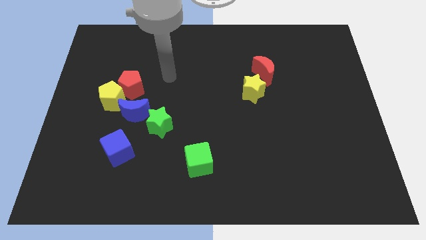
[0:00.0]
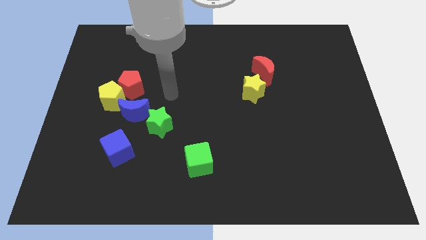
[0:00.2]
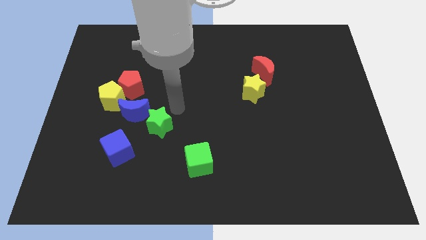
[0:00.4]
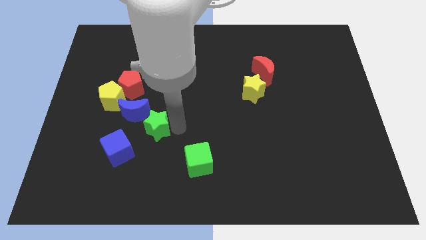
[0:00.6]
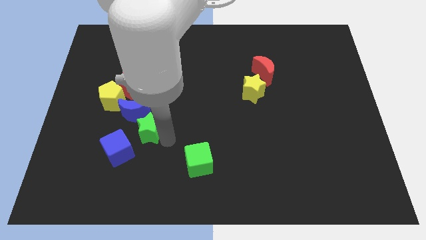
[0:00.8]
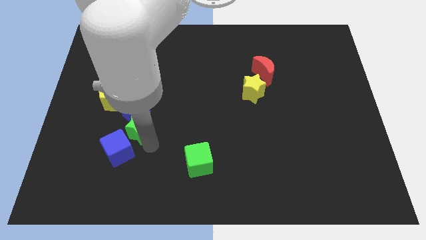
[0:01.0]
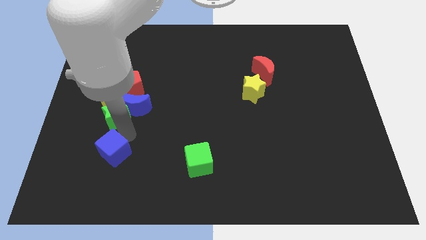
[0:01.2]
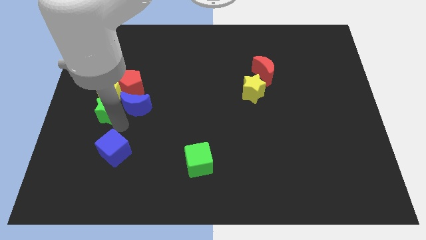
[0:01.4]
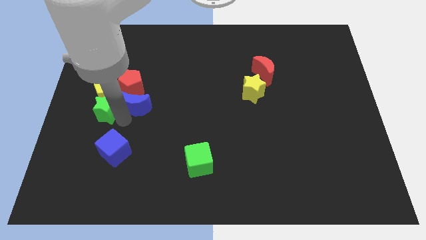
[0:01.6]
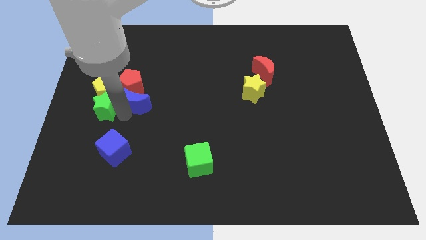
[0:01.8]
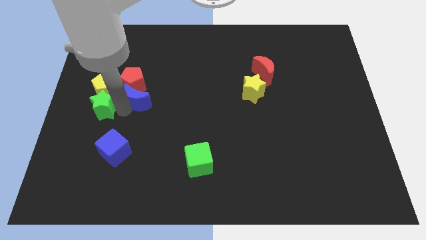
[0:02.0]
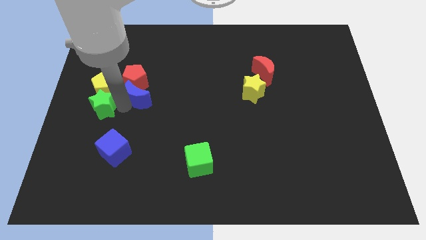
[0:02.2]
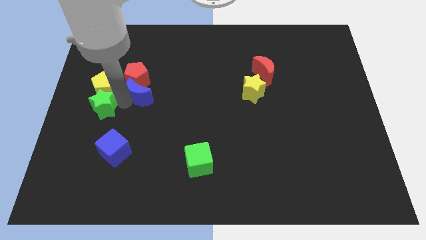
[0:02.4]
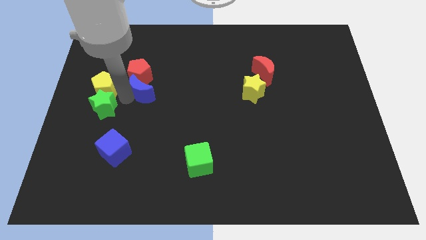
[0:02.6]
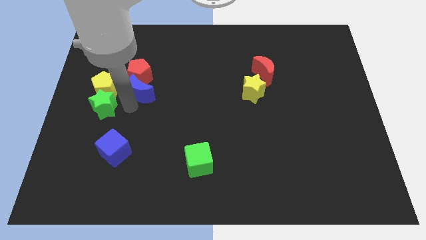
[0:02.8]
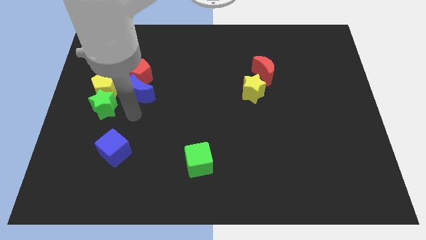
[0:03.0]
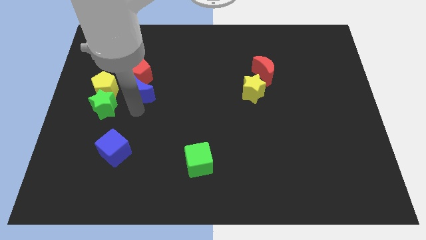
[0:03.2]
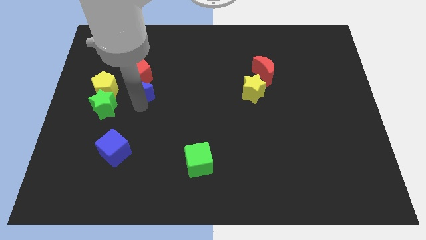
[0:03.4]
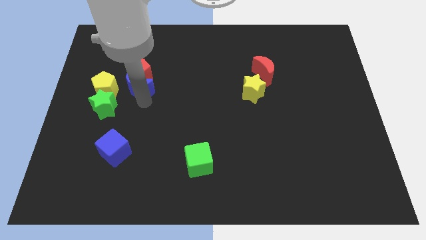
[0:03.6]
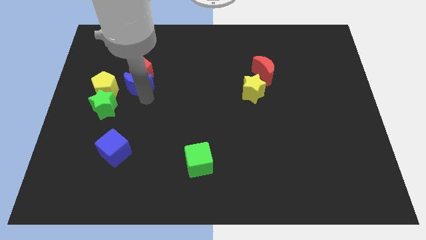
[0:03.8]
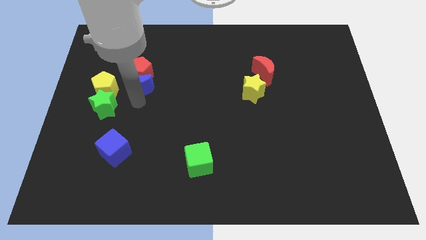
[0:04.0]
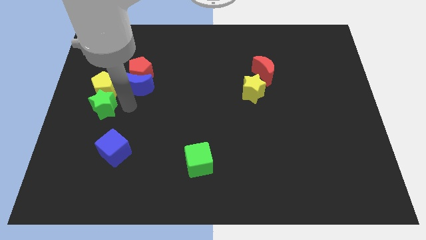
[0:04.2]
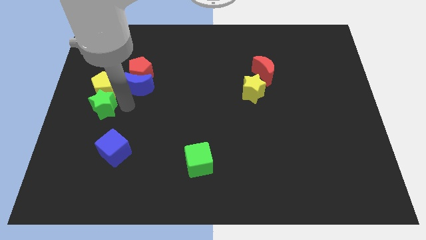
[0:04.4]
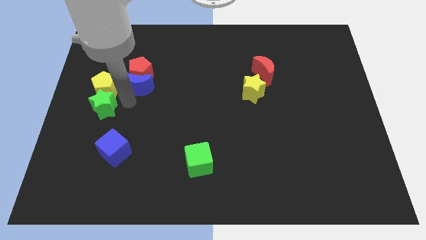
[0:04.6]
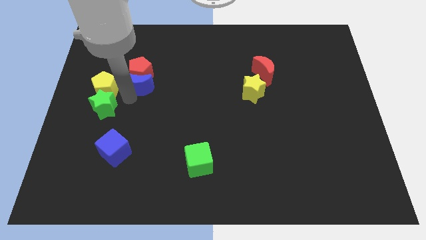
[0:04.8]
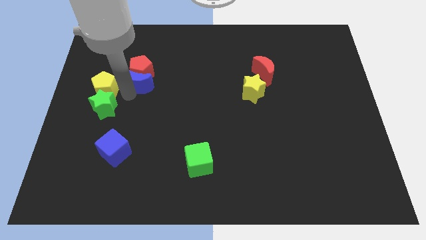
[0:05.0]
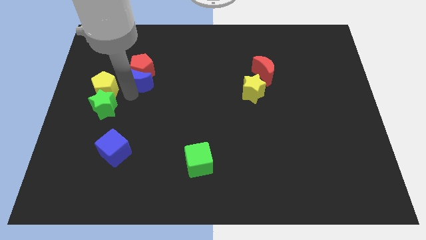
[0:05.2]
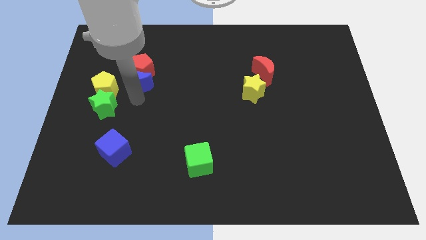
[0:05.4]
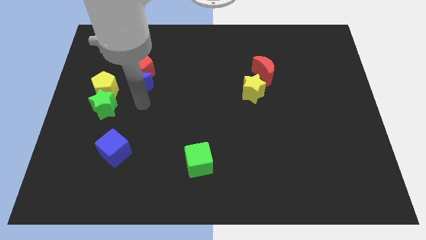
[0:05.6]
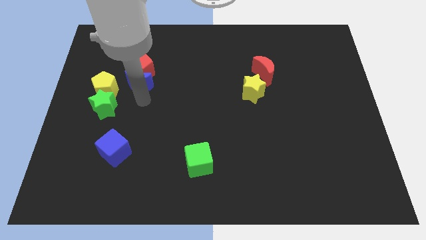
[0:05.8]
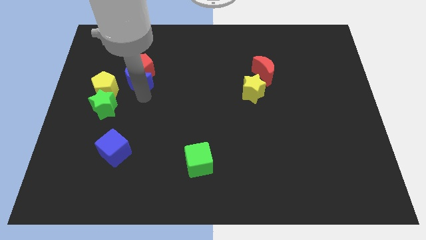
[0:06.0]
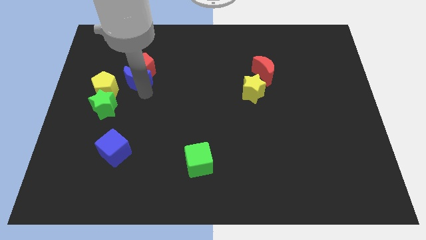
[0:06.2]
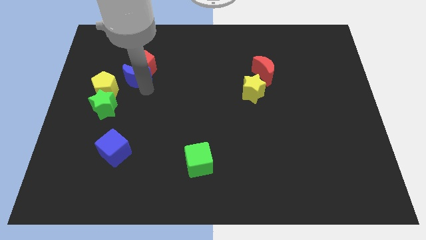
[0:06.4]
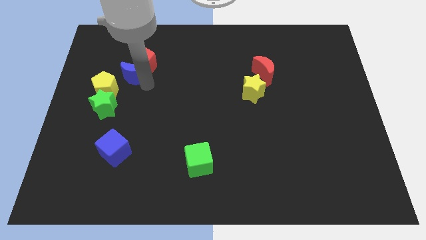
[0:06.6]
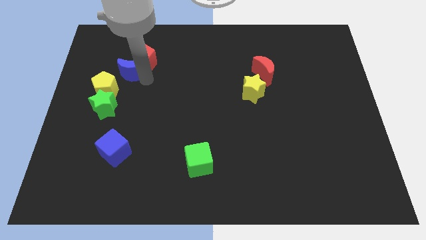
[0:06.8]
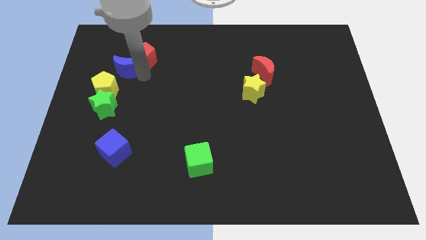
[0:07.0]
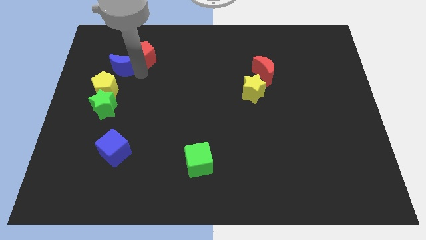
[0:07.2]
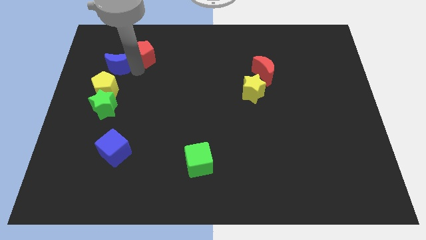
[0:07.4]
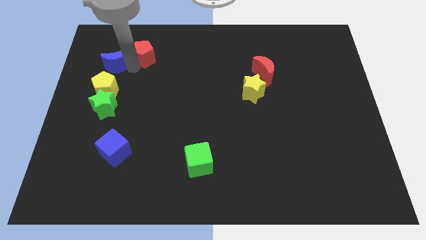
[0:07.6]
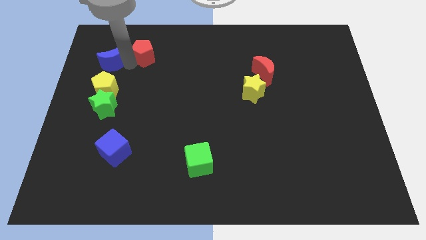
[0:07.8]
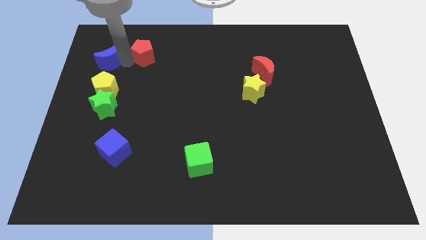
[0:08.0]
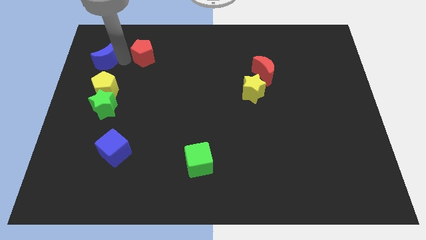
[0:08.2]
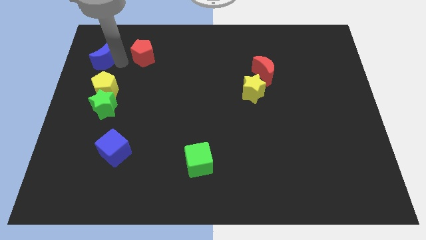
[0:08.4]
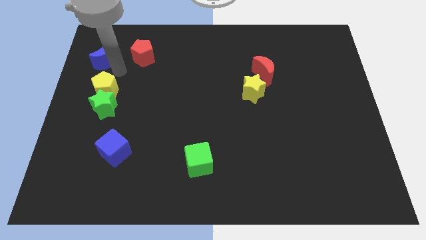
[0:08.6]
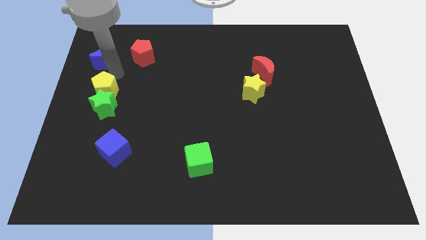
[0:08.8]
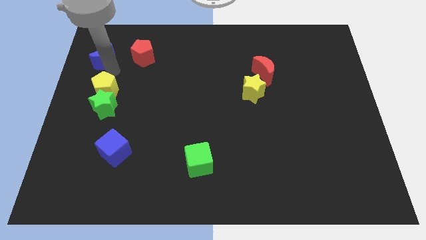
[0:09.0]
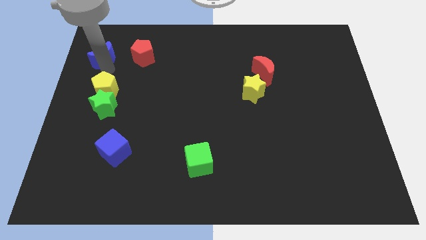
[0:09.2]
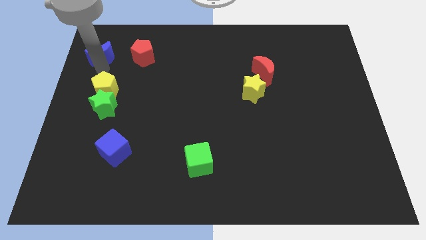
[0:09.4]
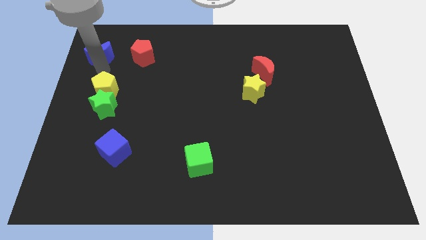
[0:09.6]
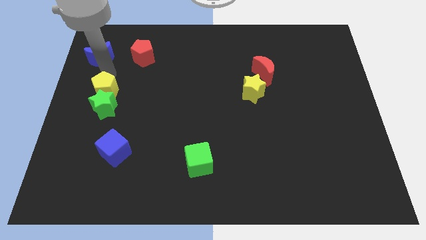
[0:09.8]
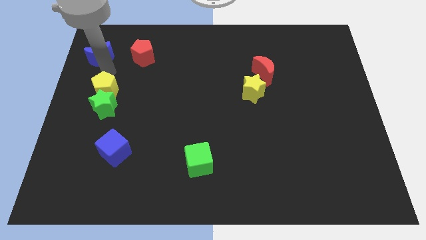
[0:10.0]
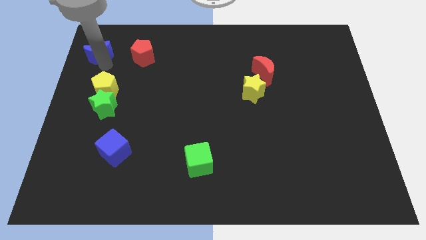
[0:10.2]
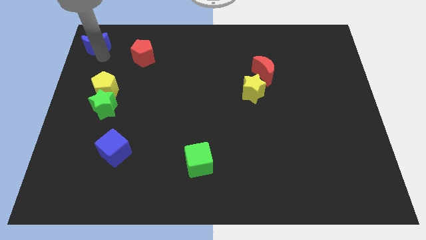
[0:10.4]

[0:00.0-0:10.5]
slide the blue moon to the top left

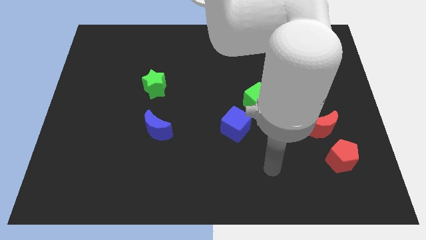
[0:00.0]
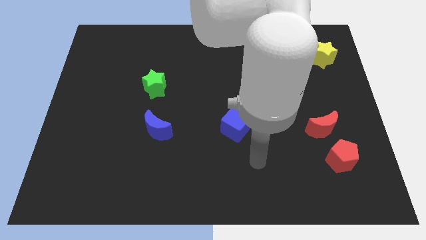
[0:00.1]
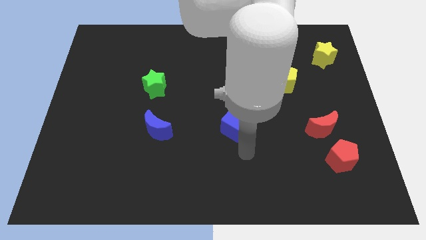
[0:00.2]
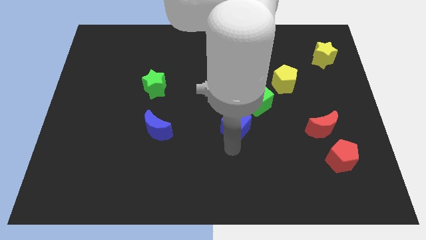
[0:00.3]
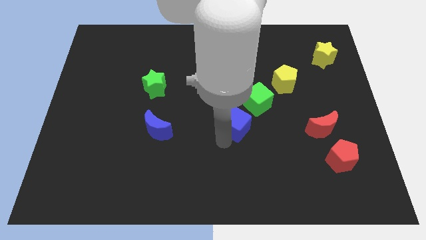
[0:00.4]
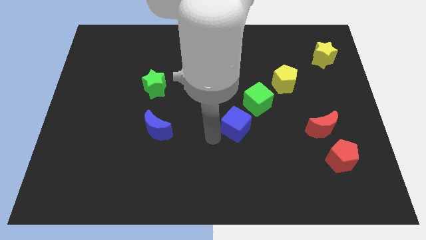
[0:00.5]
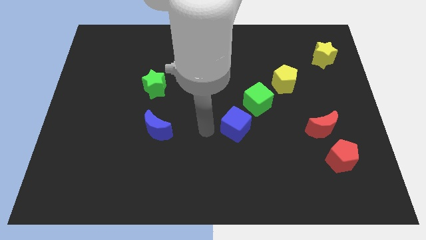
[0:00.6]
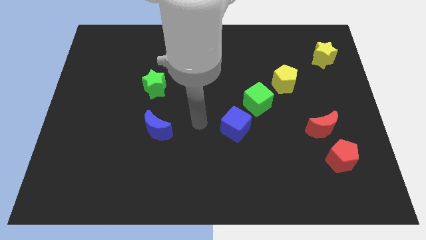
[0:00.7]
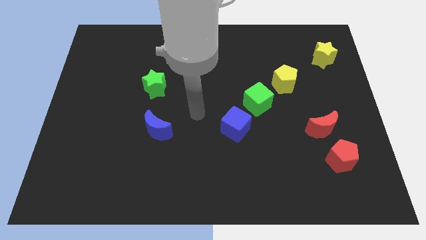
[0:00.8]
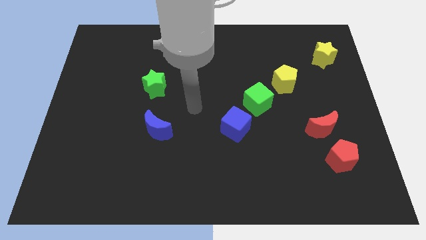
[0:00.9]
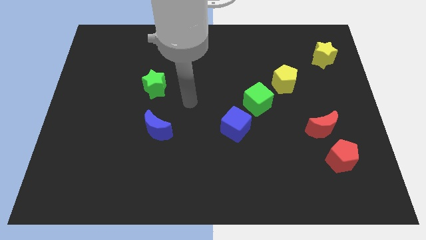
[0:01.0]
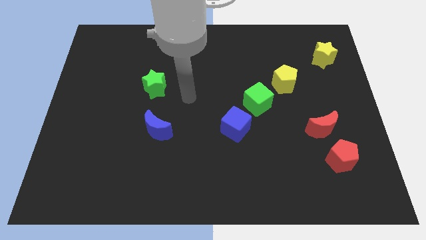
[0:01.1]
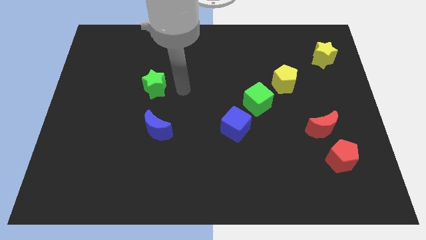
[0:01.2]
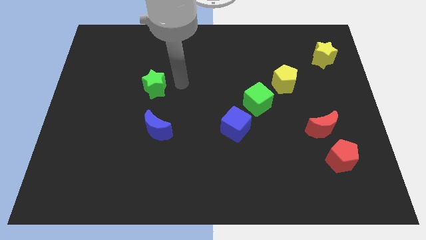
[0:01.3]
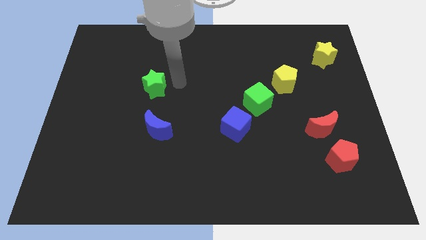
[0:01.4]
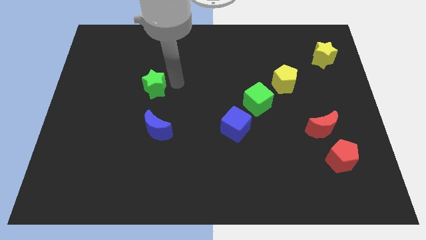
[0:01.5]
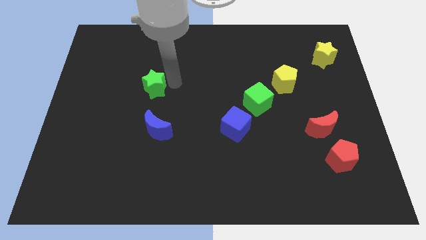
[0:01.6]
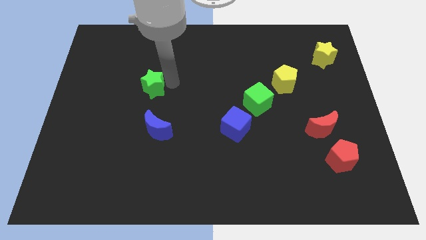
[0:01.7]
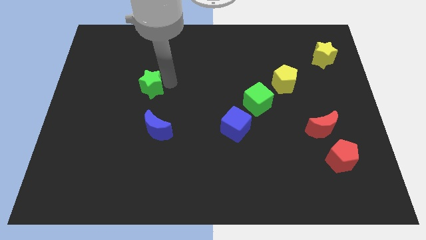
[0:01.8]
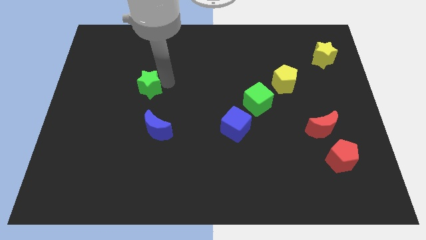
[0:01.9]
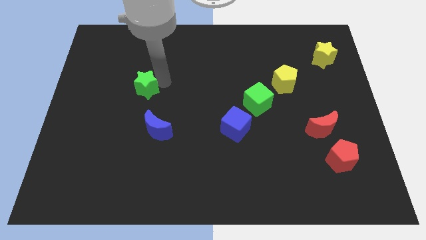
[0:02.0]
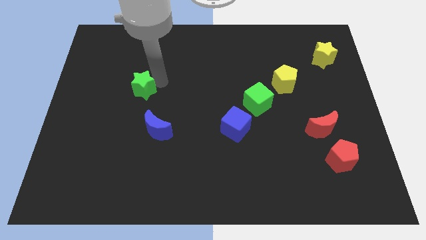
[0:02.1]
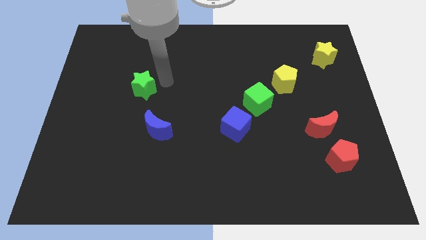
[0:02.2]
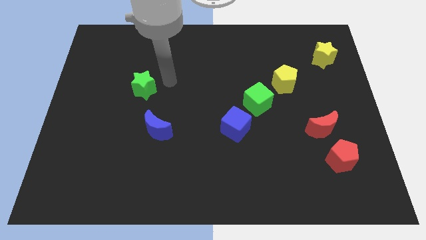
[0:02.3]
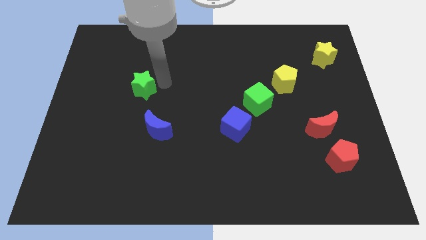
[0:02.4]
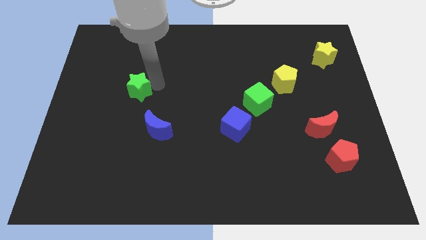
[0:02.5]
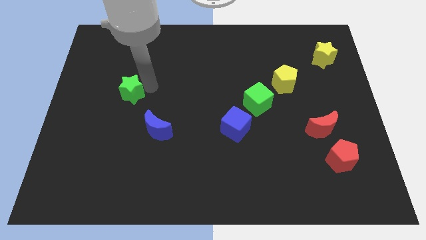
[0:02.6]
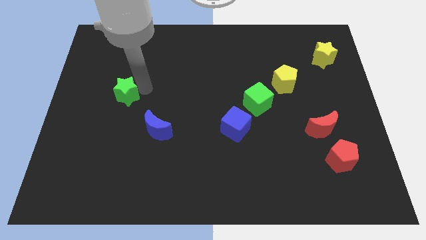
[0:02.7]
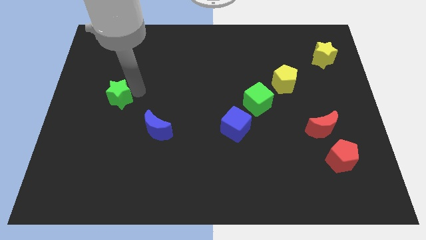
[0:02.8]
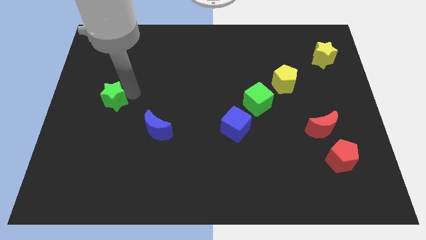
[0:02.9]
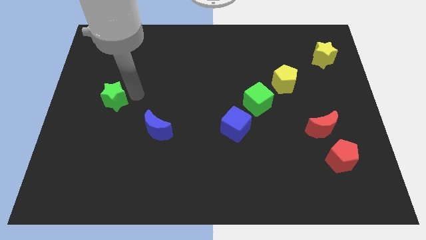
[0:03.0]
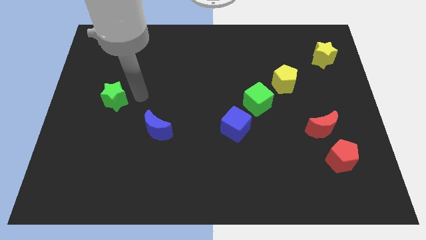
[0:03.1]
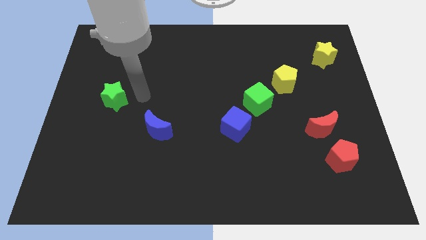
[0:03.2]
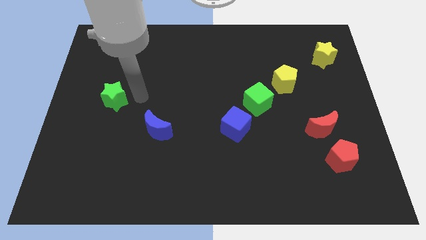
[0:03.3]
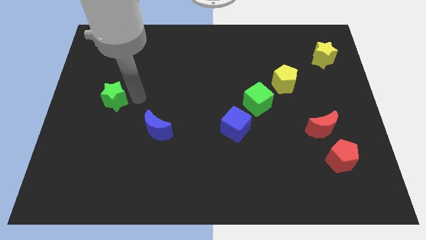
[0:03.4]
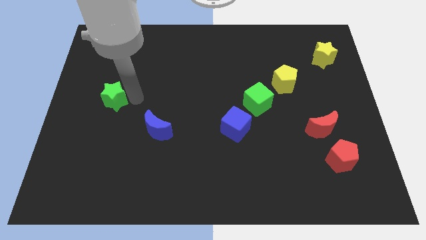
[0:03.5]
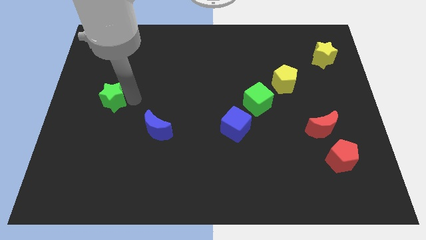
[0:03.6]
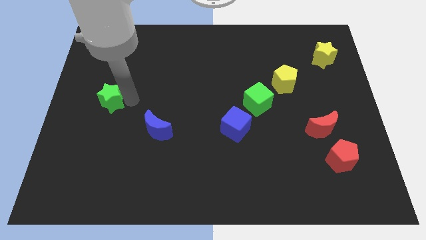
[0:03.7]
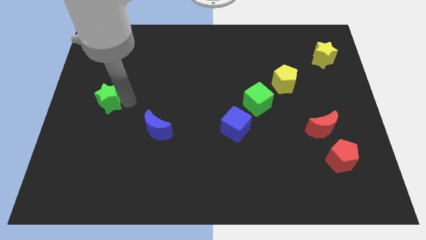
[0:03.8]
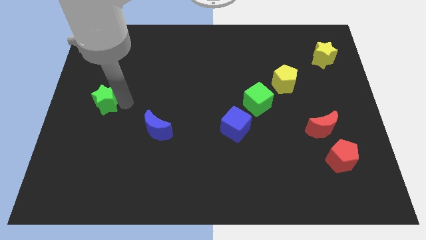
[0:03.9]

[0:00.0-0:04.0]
push the green star to the center left
